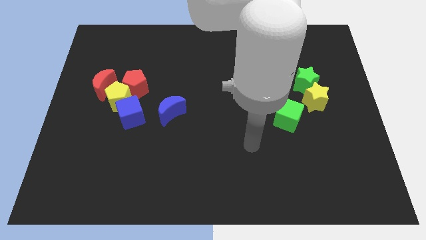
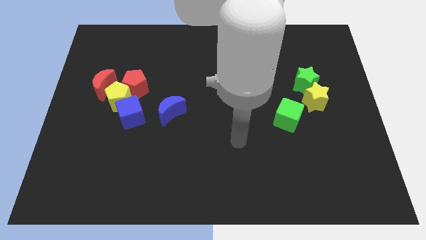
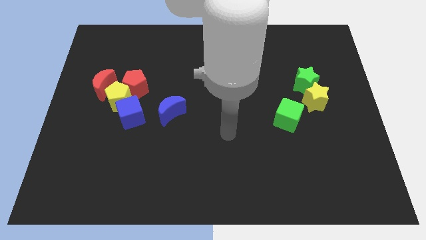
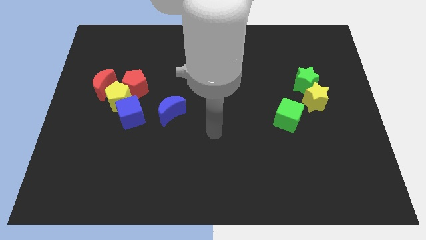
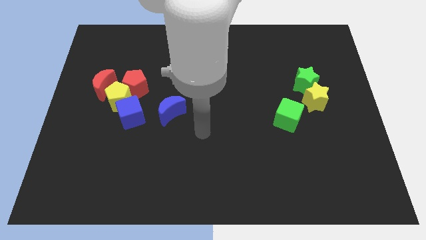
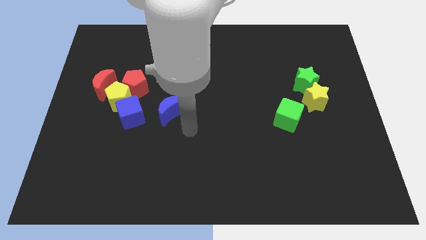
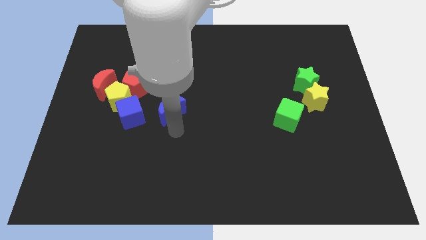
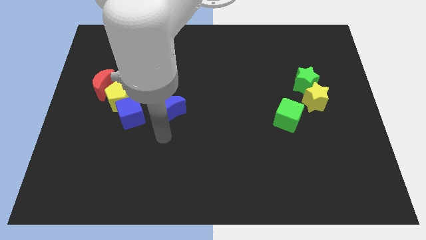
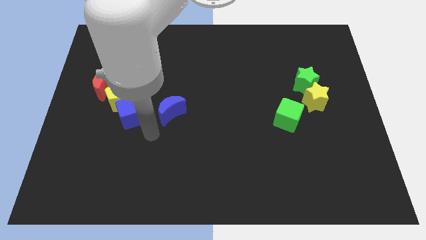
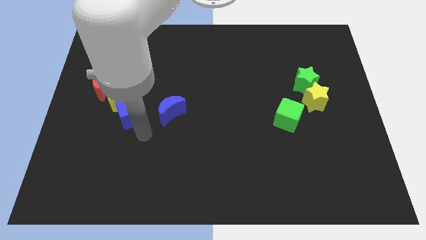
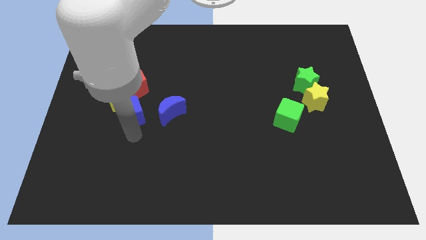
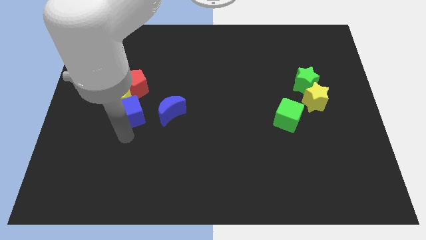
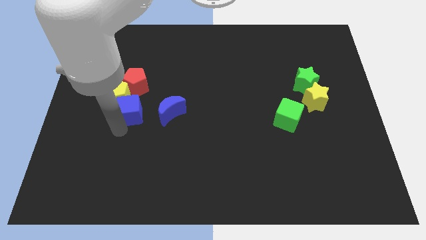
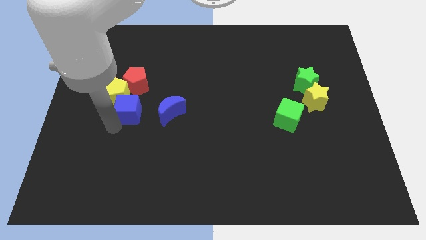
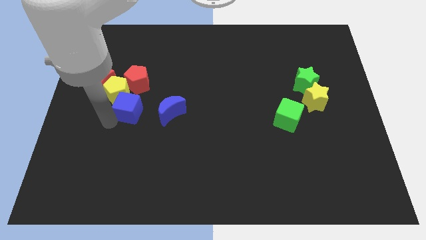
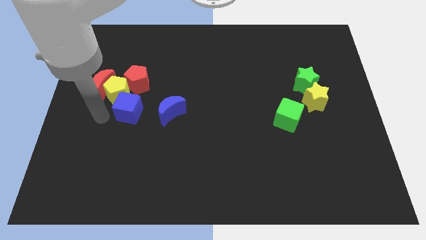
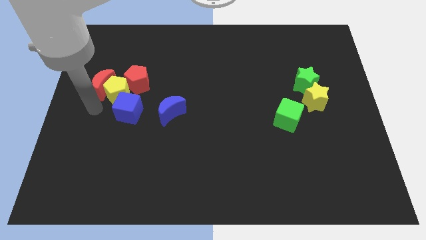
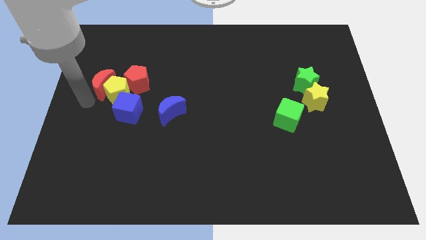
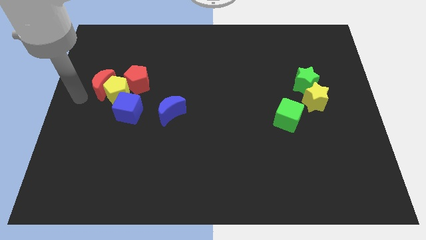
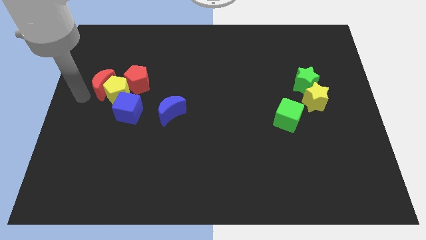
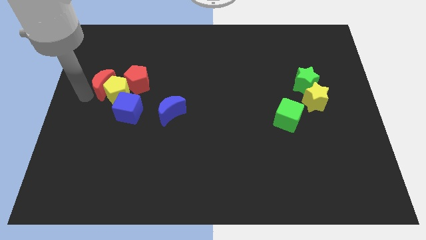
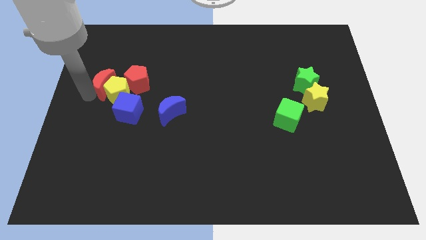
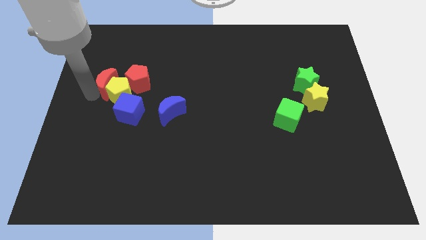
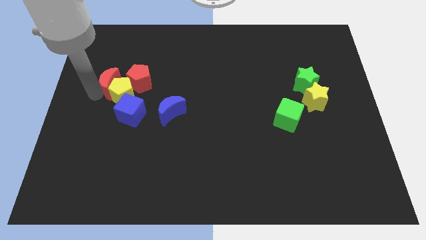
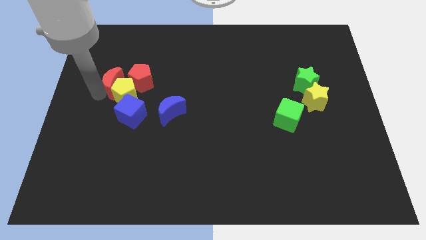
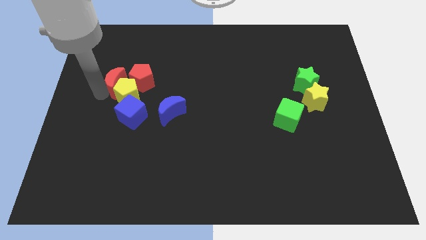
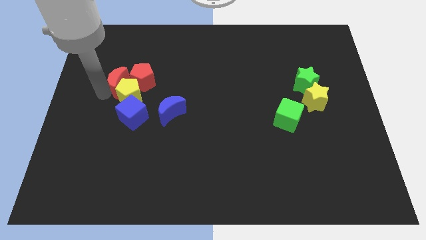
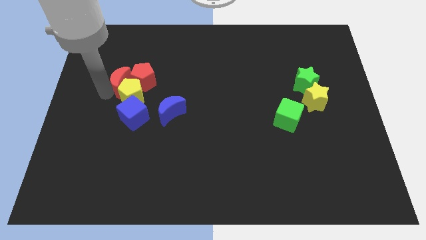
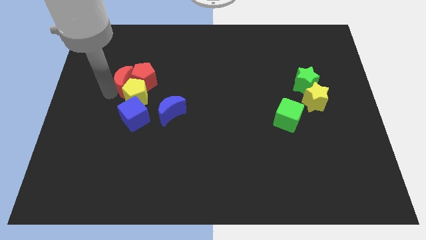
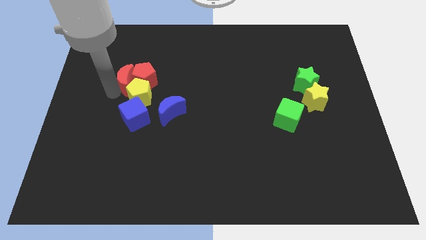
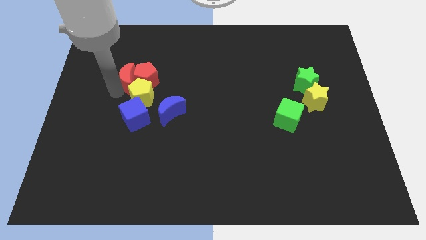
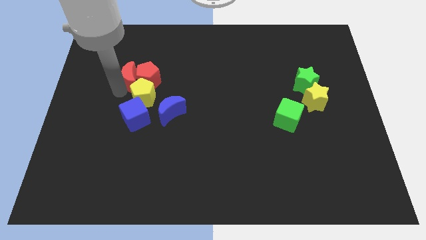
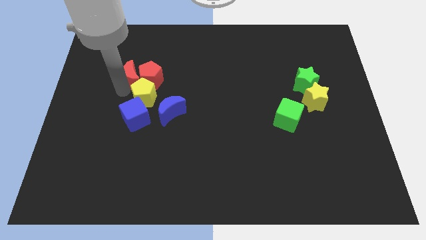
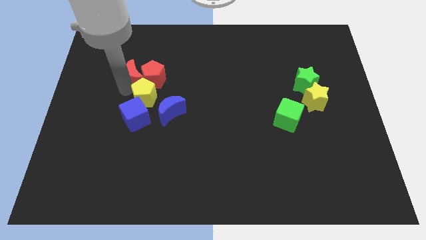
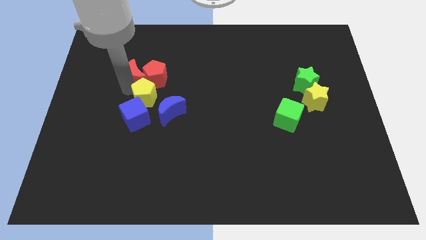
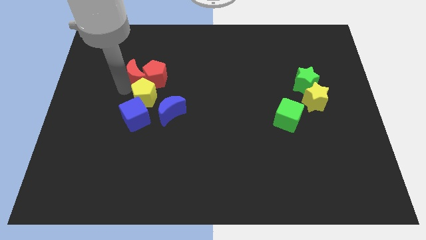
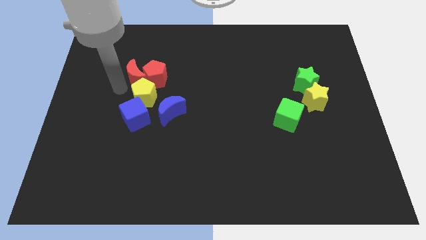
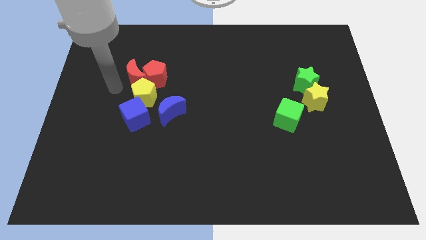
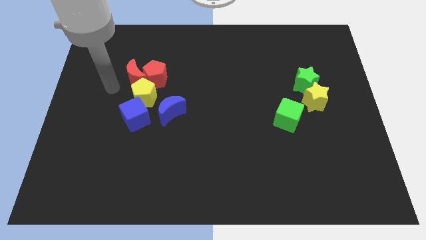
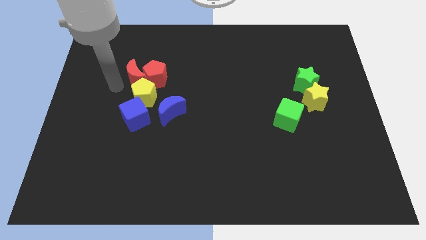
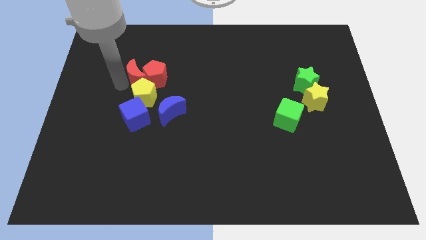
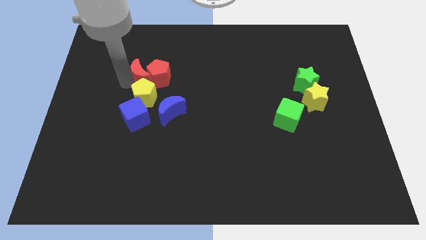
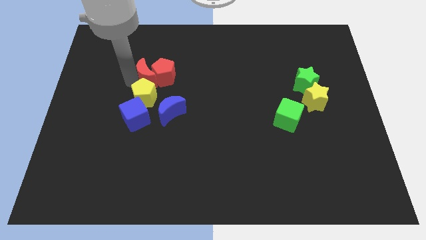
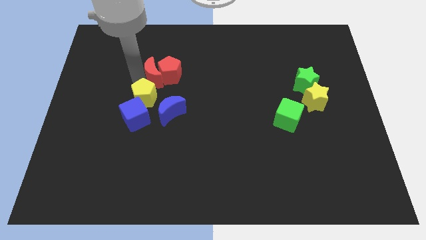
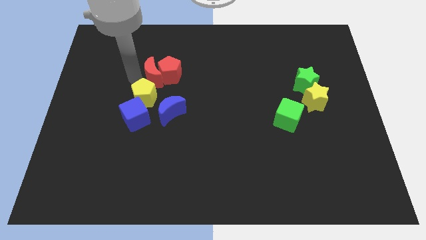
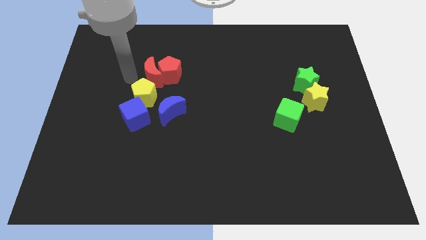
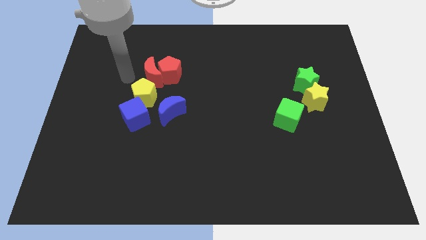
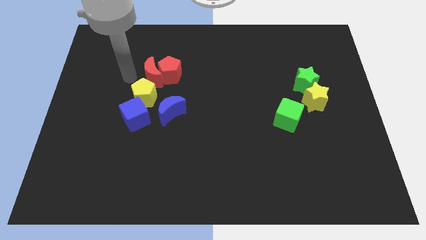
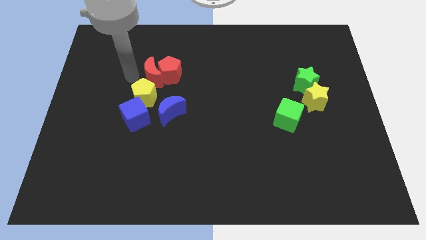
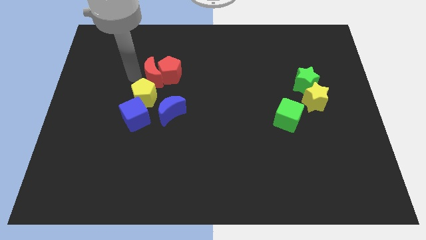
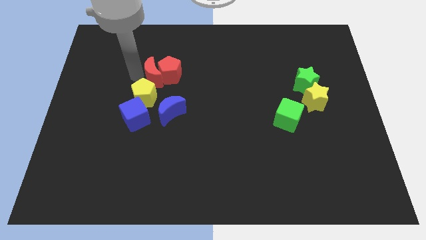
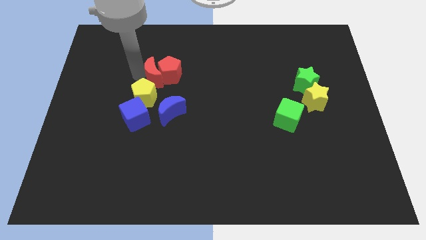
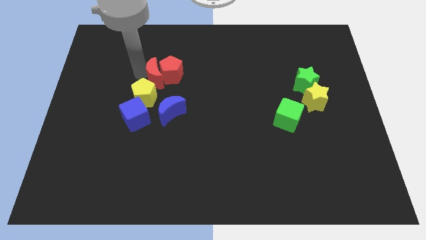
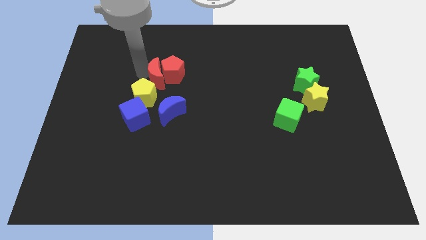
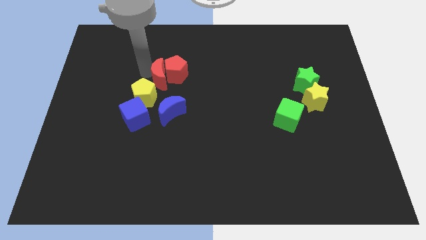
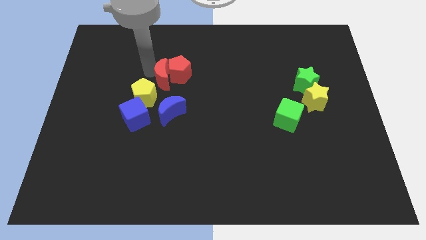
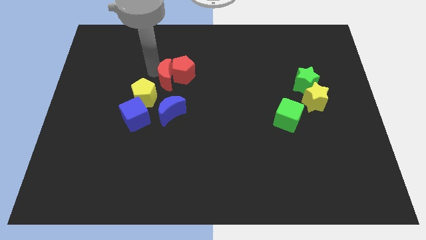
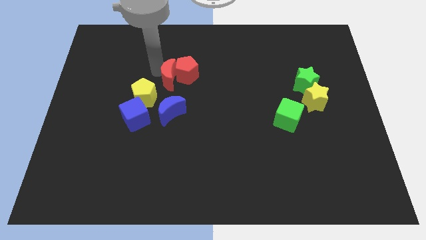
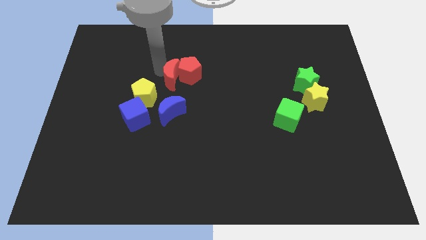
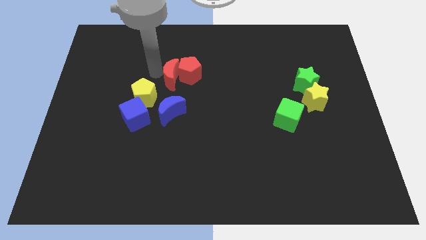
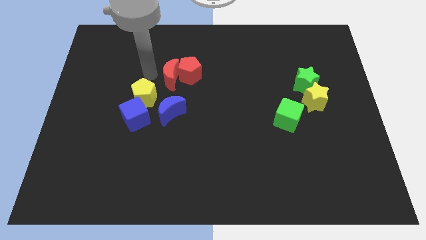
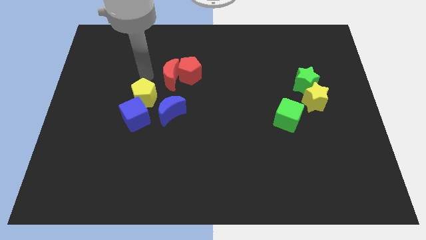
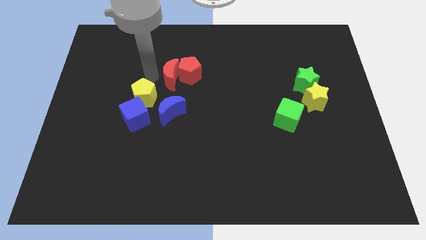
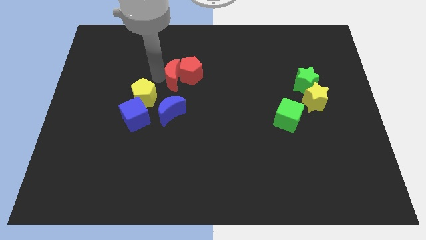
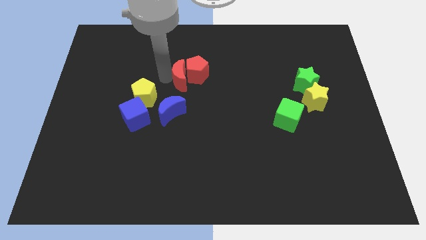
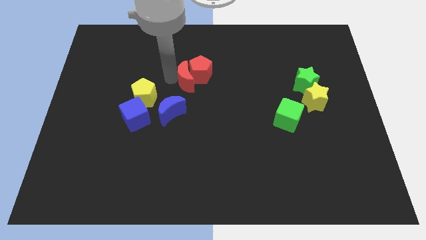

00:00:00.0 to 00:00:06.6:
slide the red moon to the right

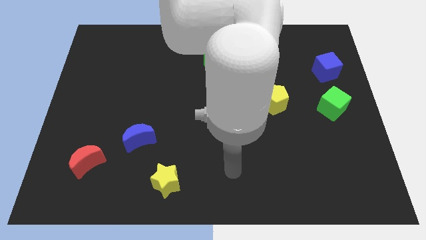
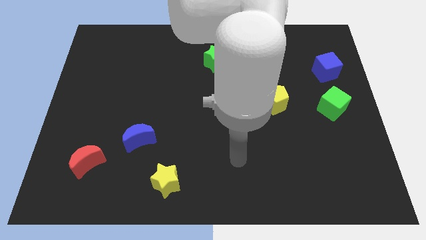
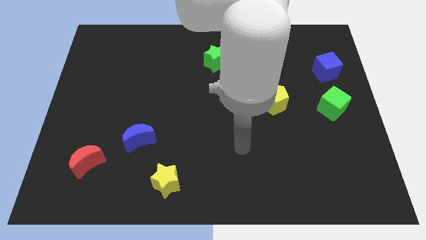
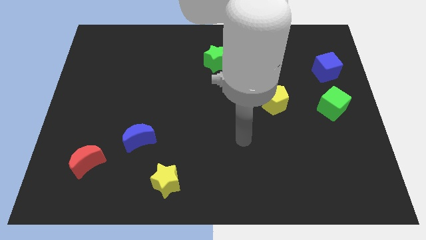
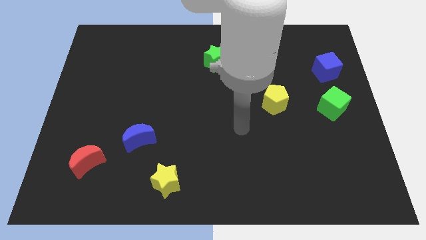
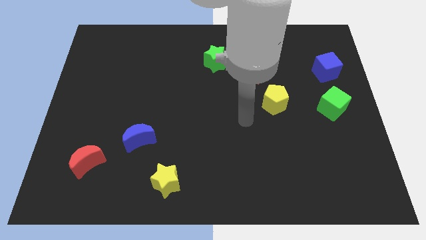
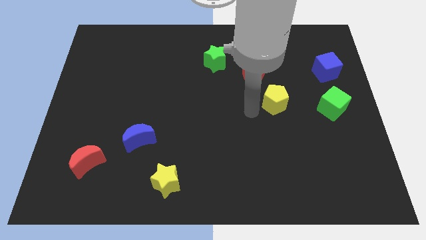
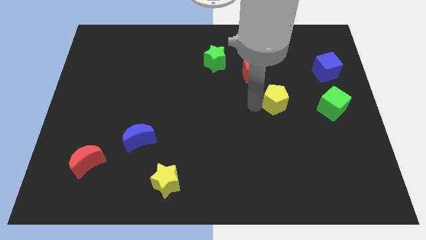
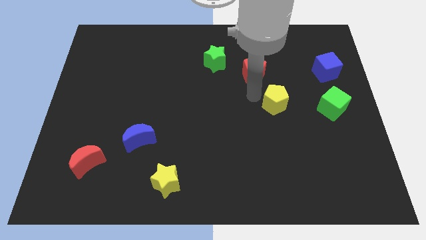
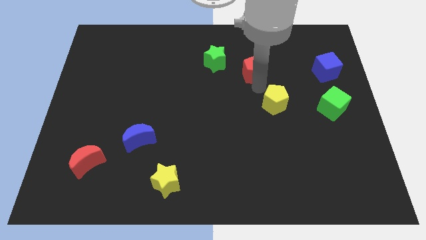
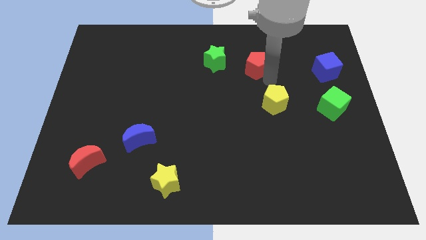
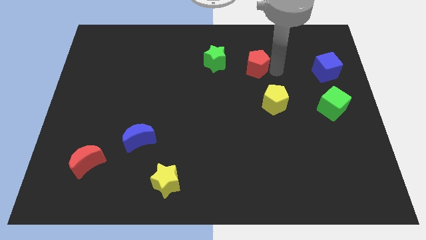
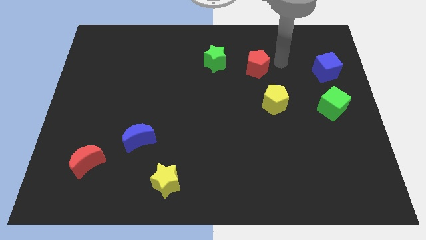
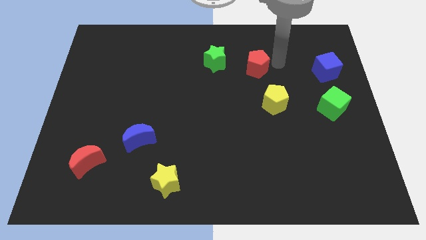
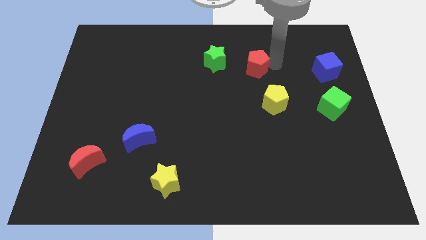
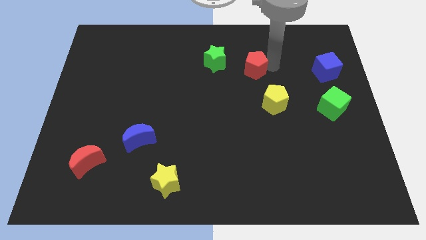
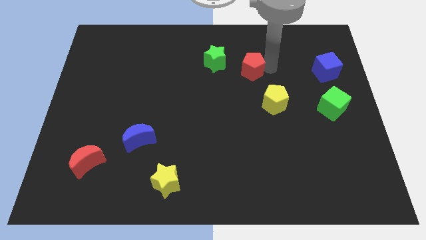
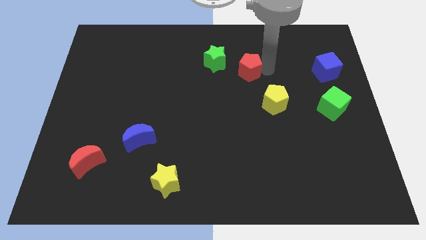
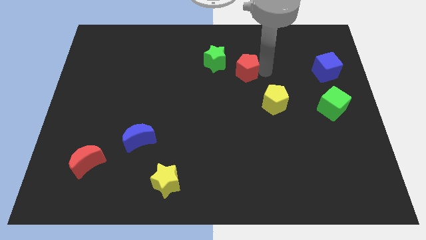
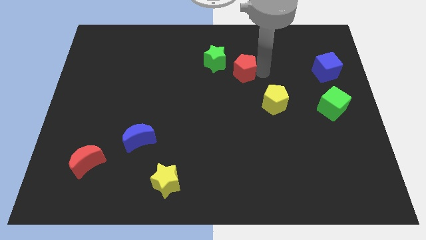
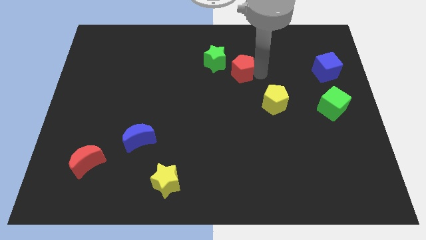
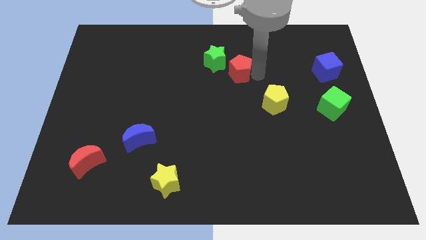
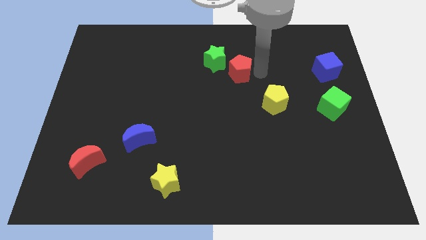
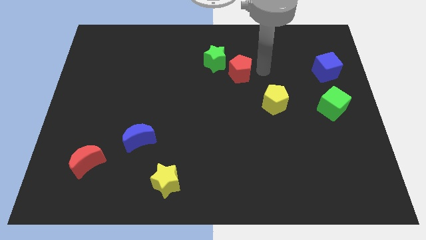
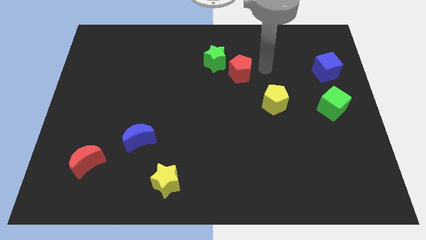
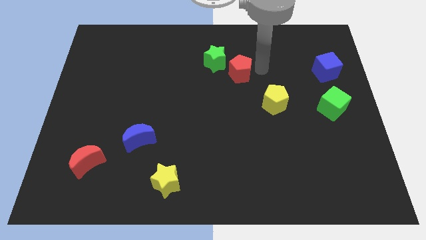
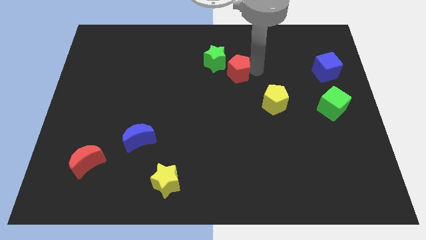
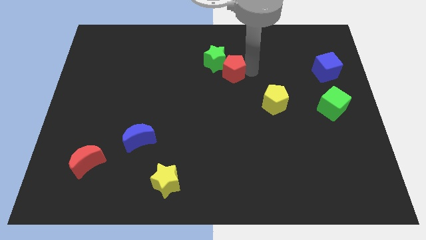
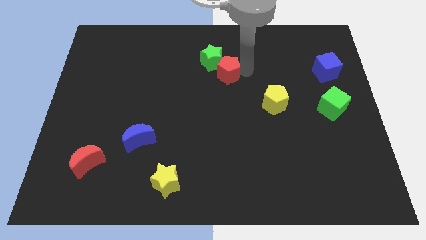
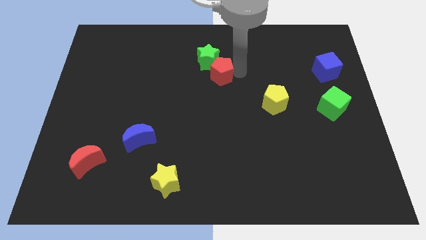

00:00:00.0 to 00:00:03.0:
slightly push the red pentagon to the left
